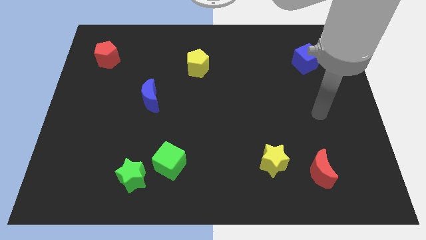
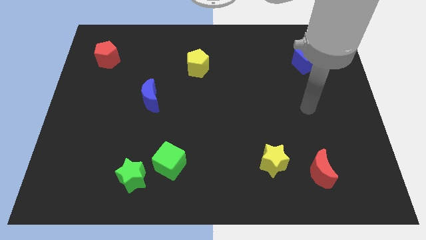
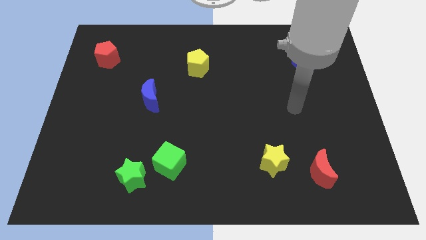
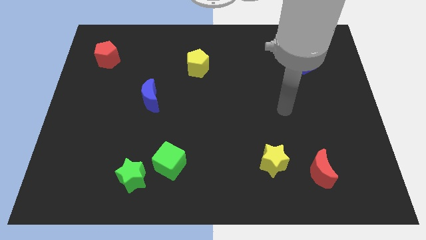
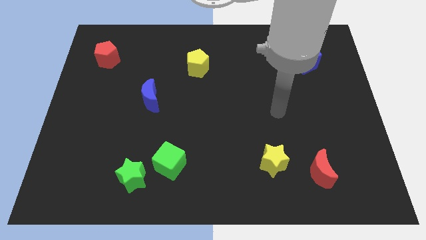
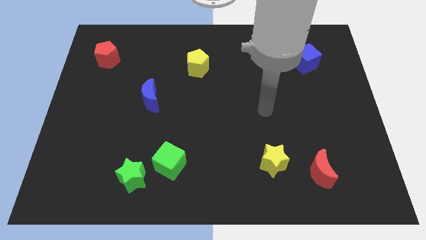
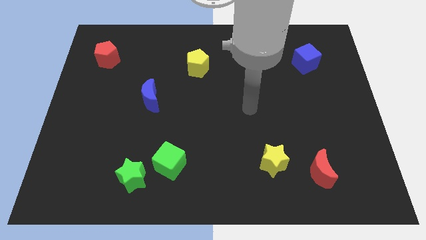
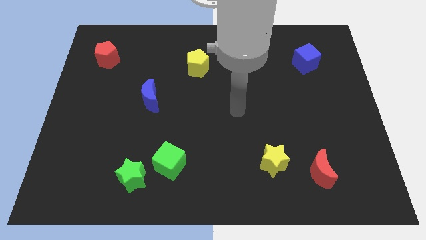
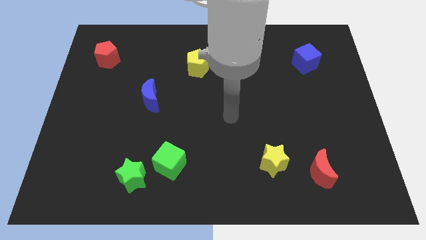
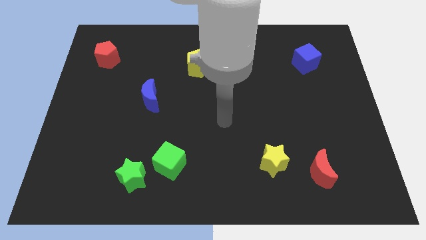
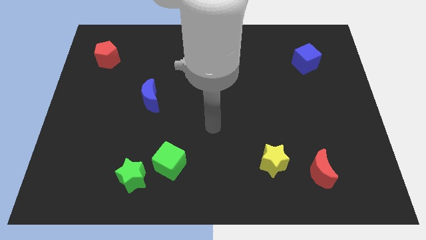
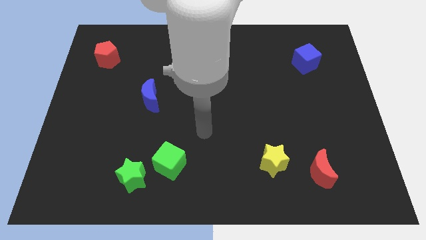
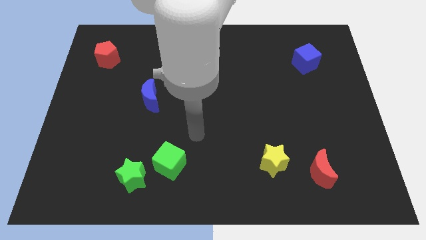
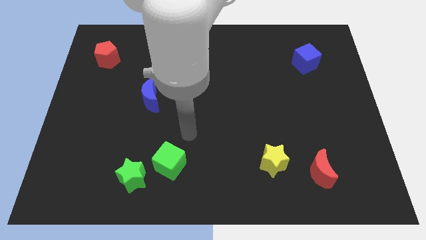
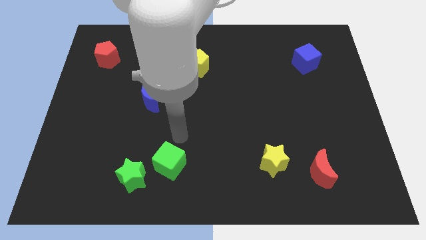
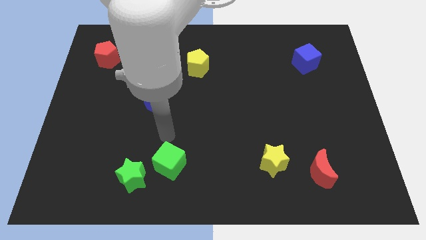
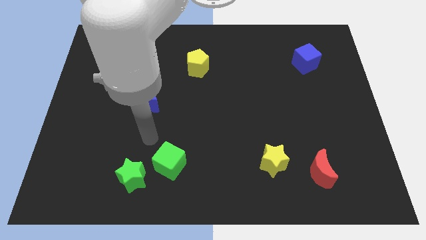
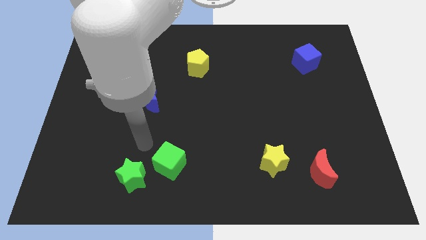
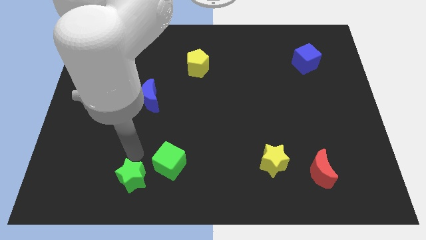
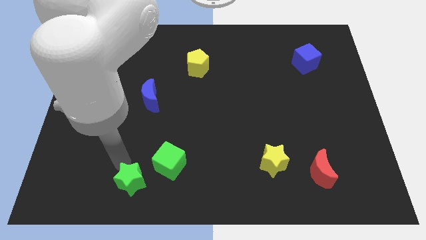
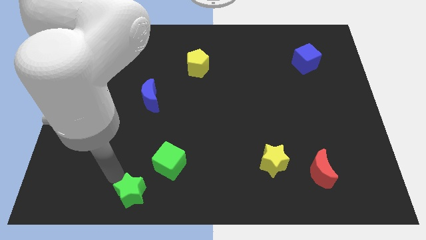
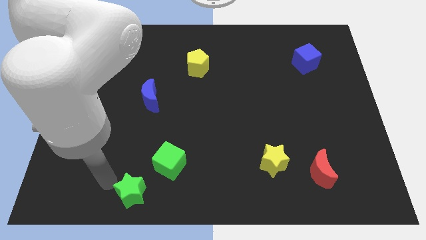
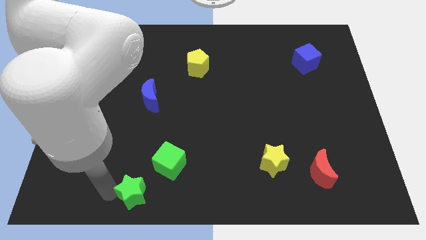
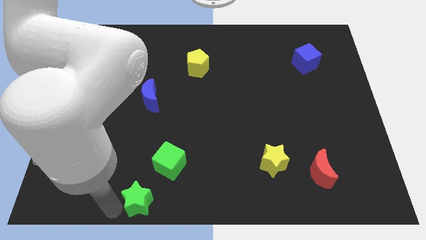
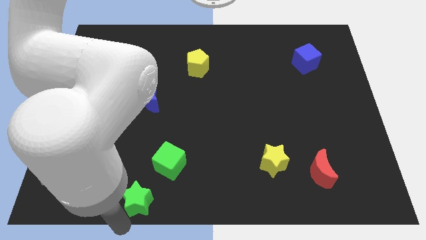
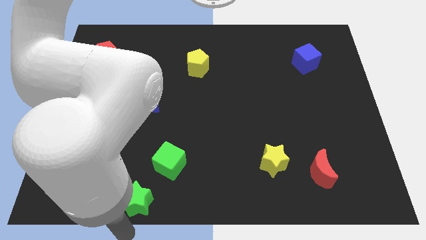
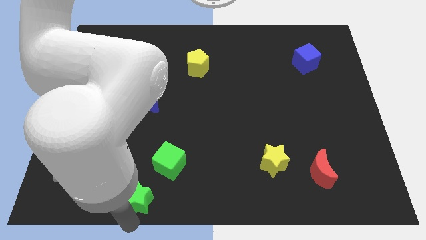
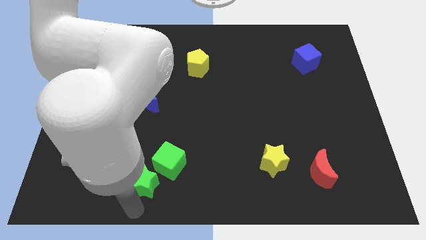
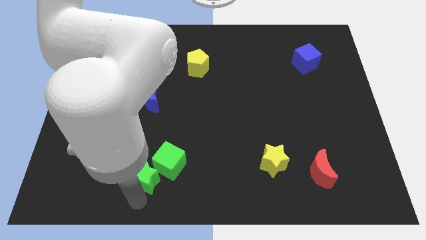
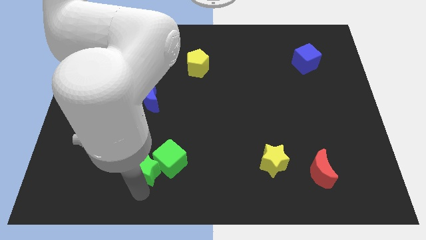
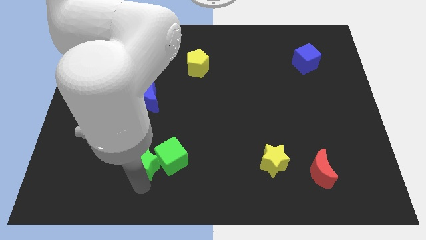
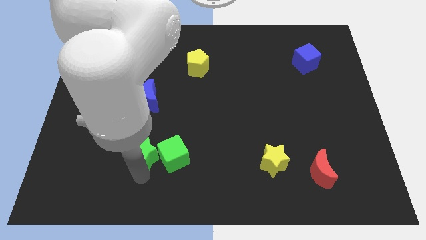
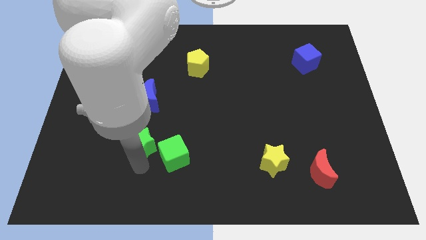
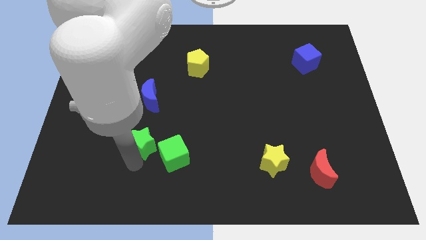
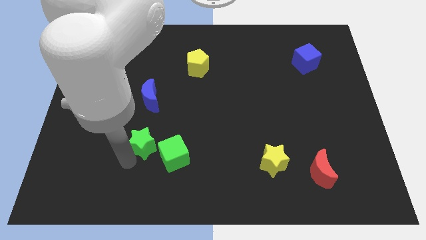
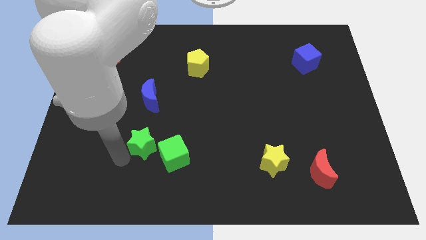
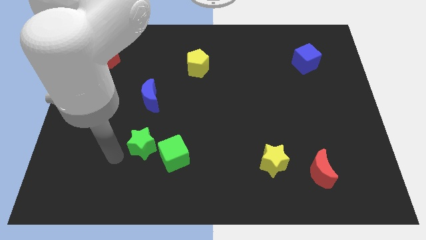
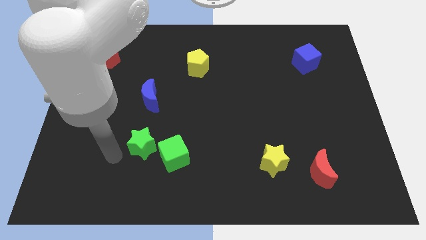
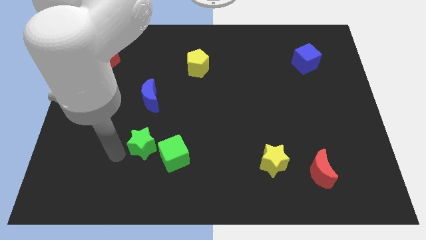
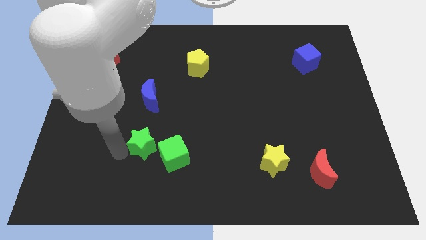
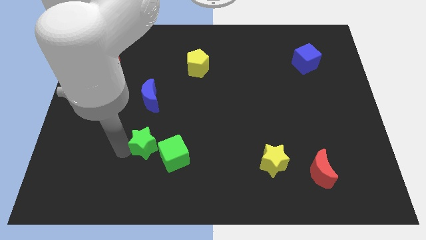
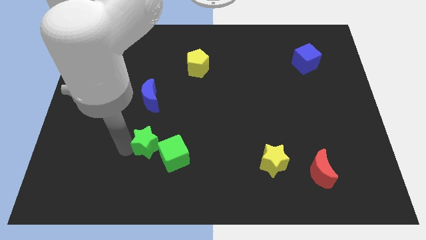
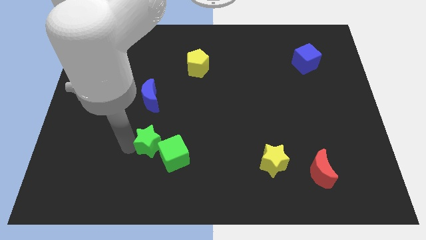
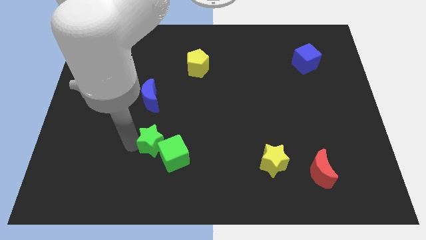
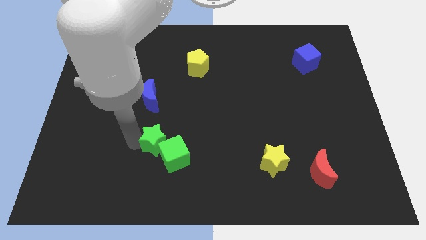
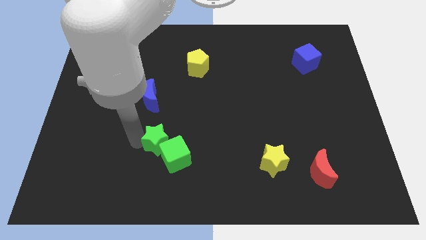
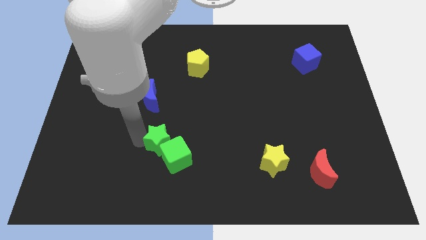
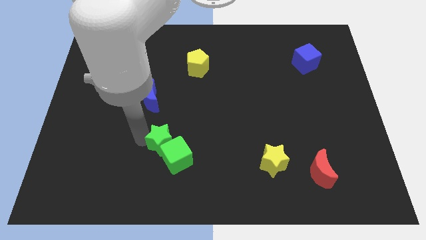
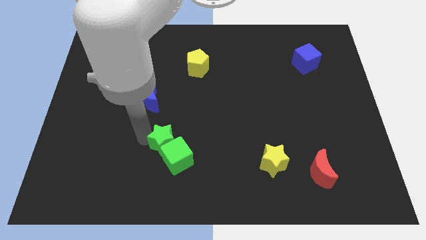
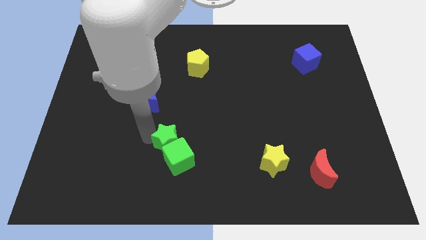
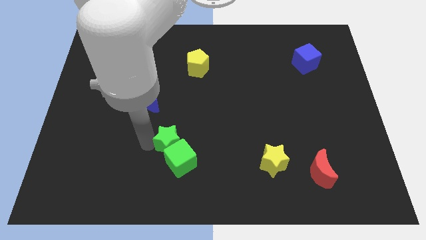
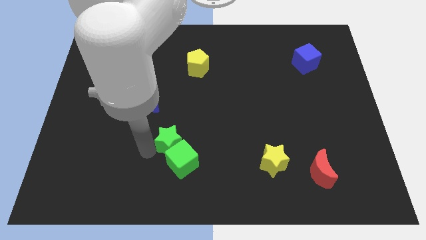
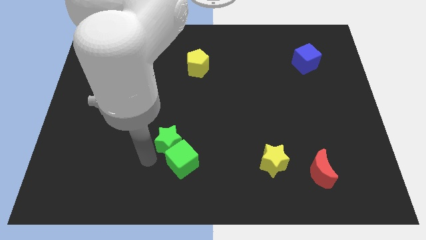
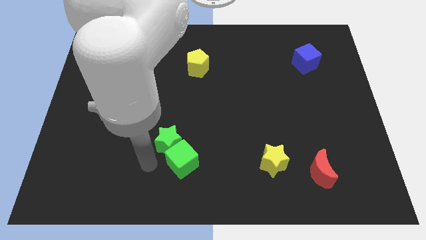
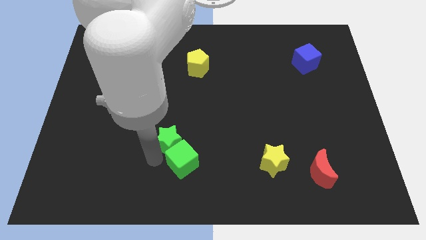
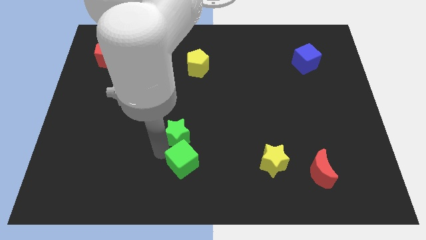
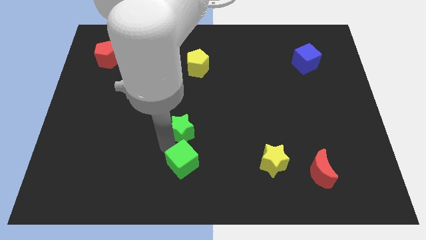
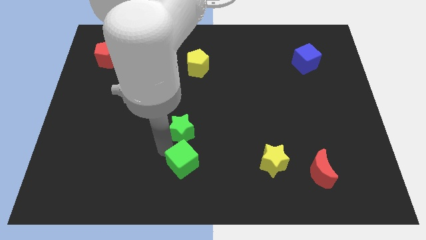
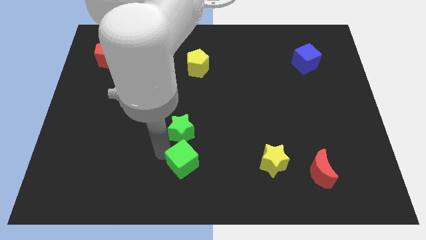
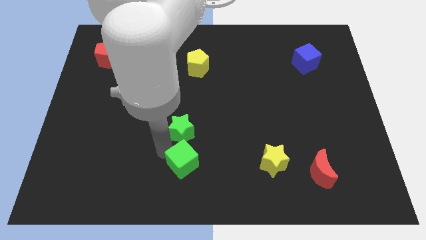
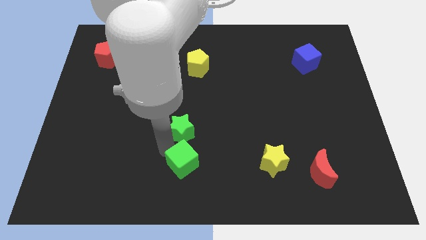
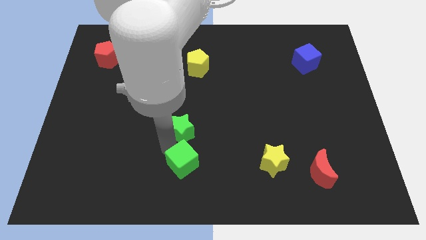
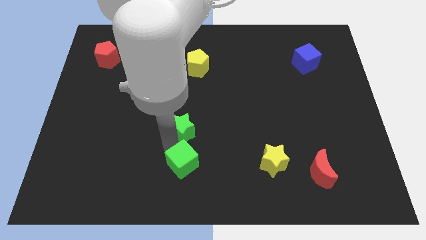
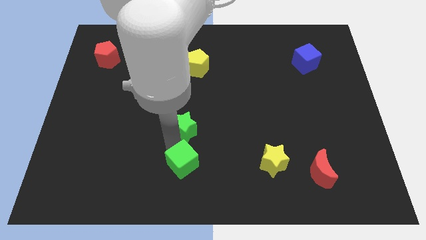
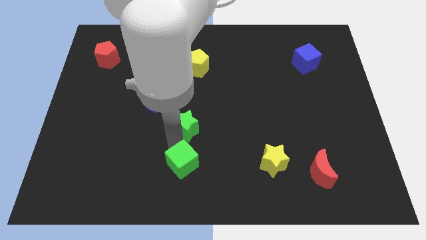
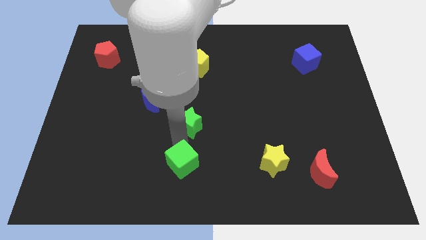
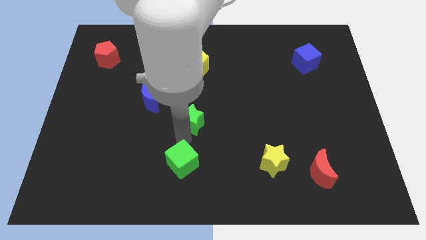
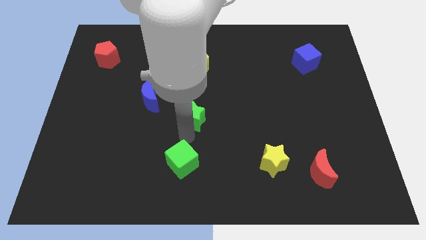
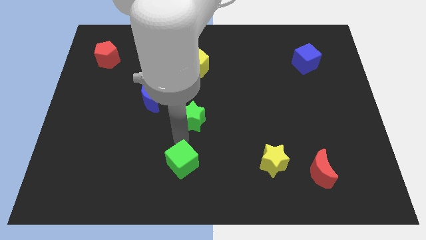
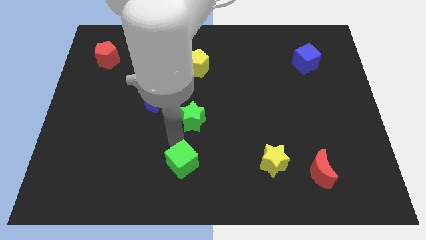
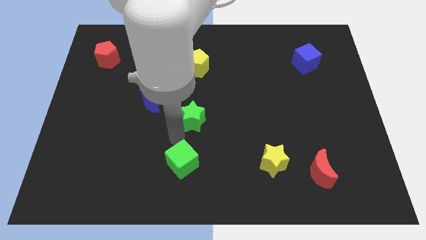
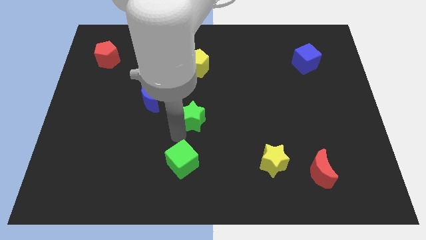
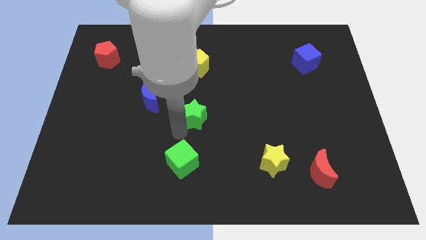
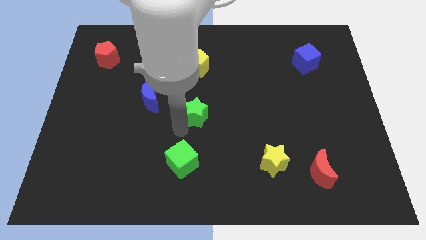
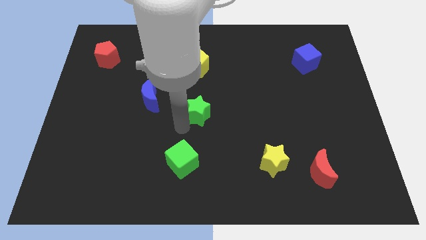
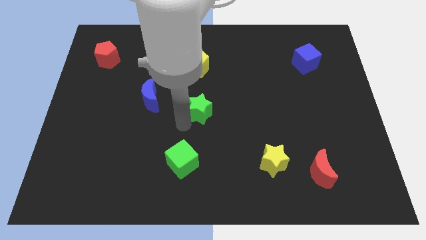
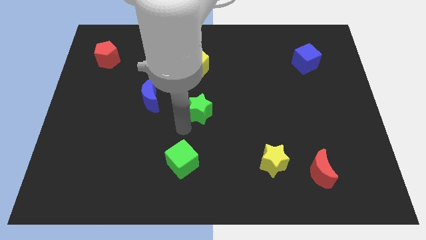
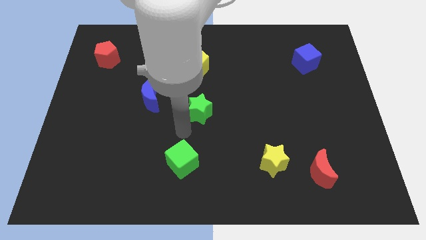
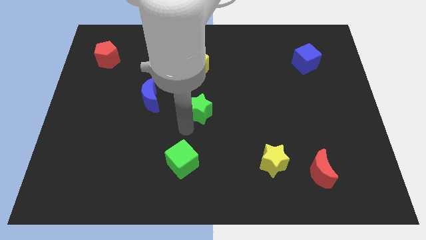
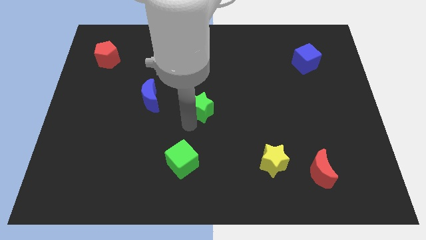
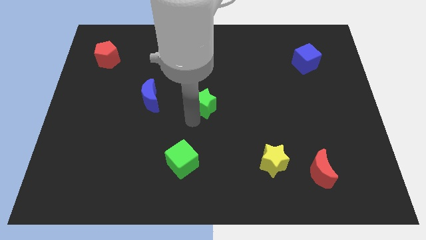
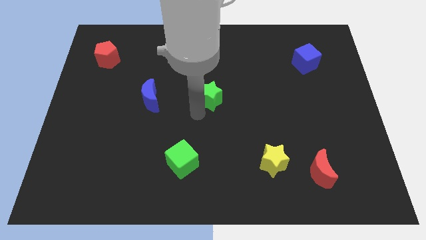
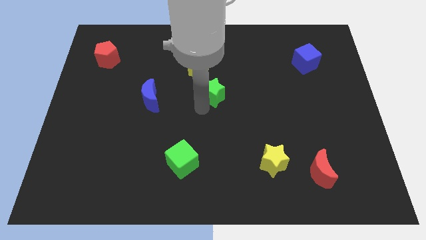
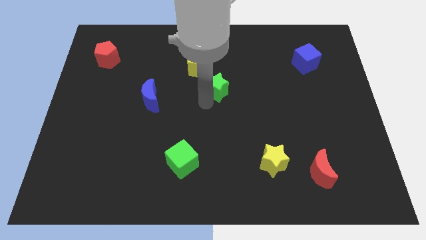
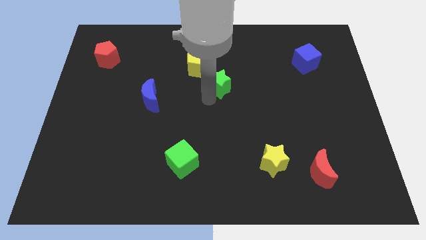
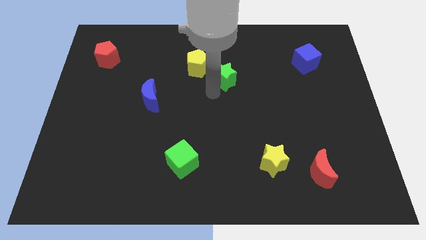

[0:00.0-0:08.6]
move the green star right of the yellow pentagon
